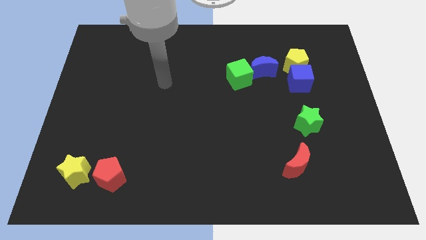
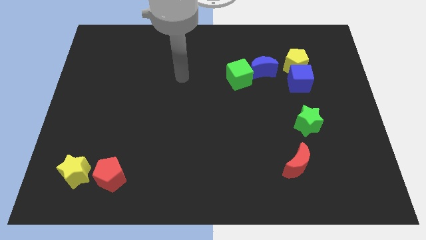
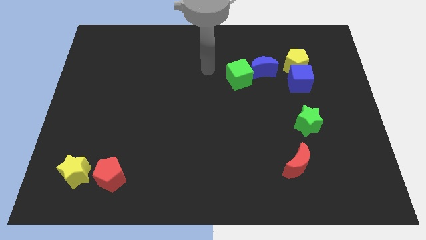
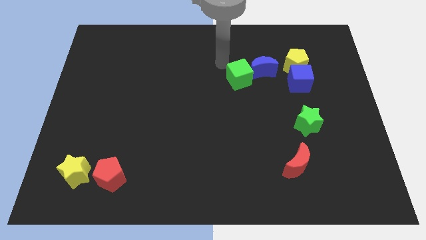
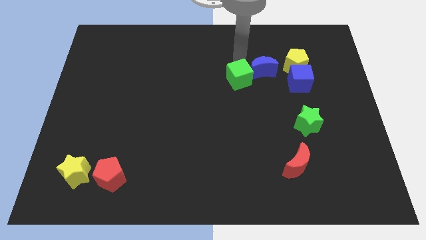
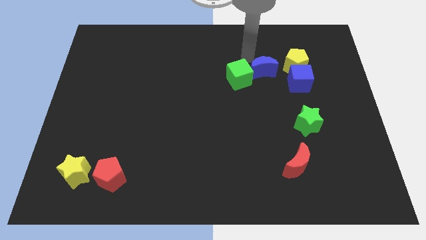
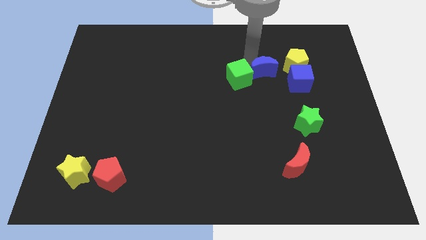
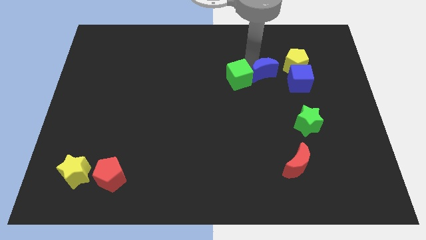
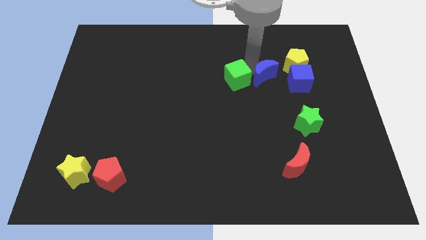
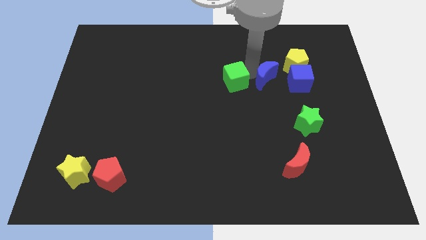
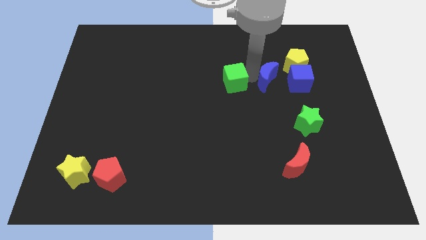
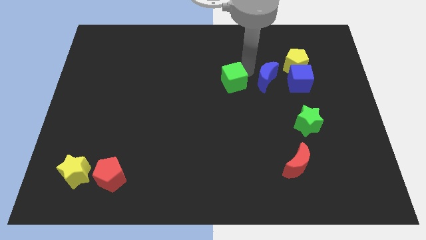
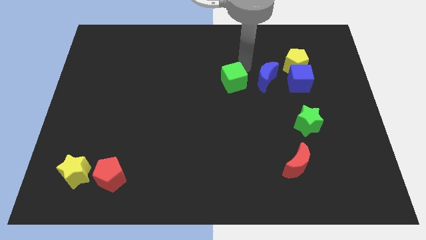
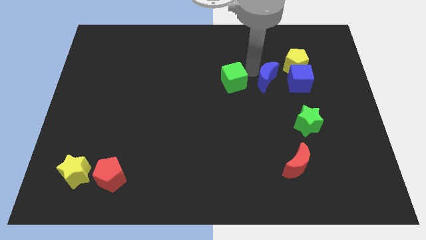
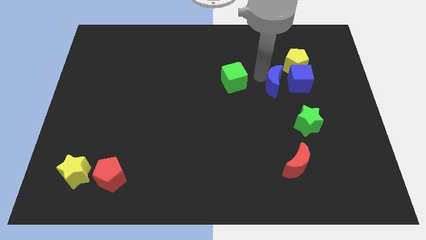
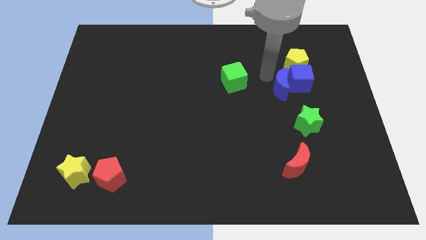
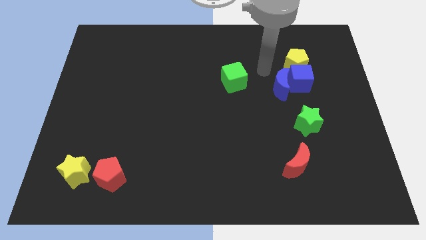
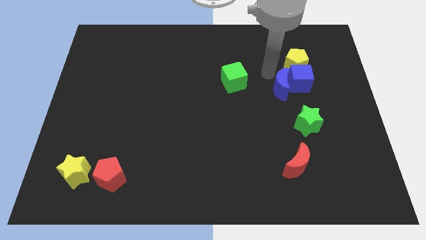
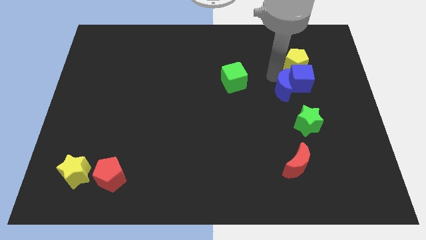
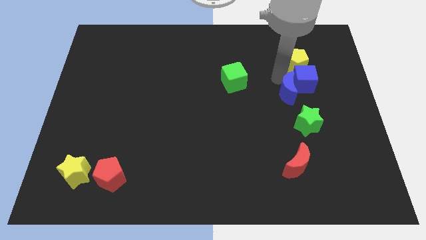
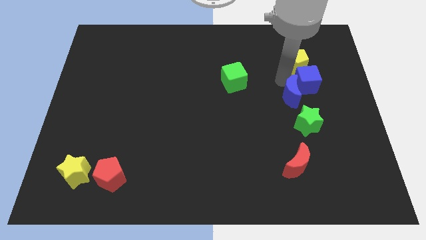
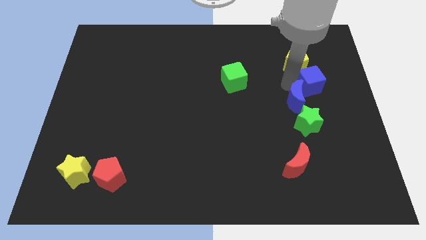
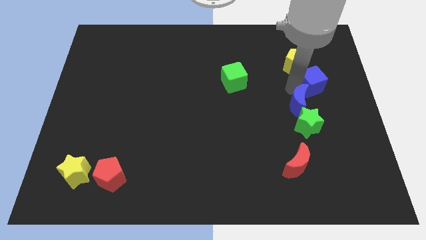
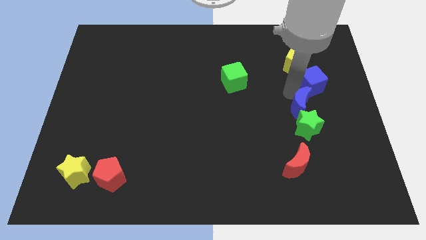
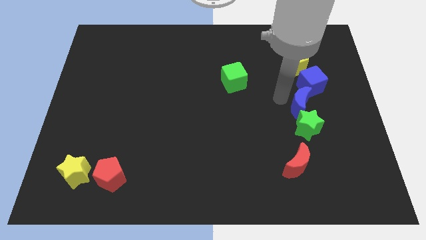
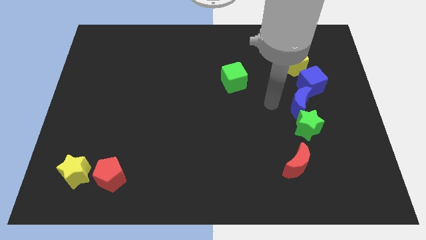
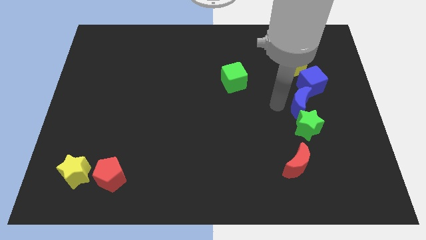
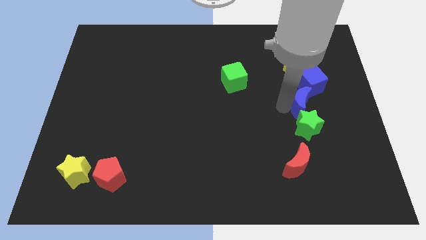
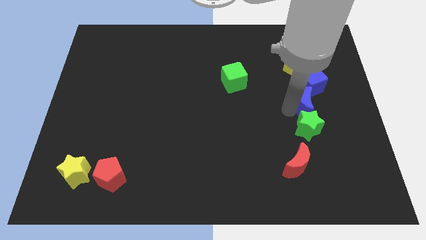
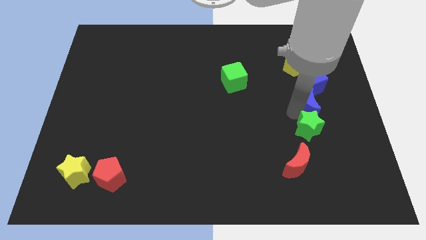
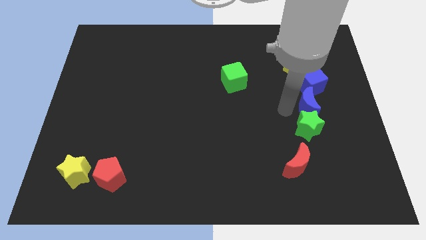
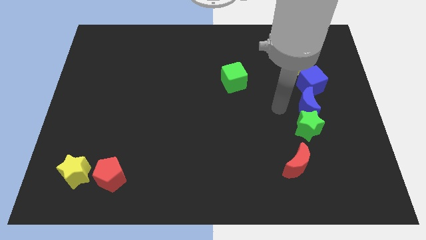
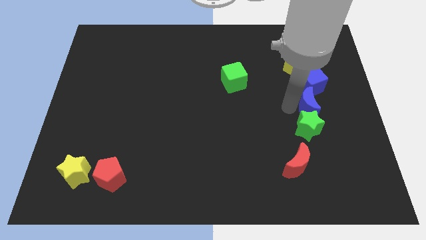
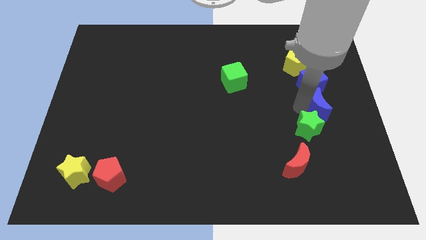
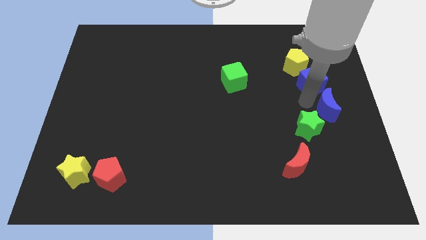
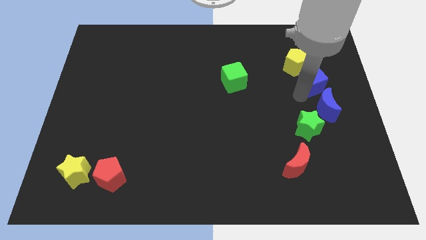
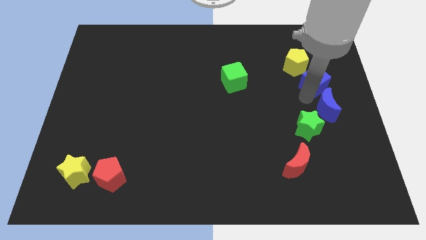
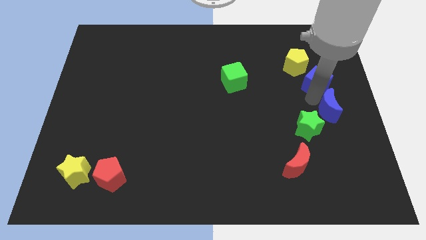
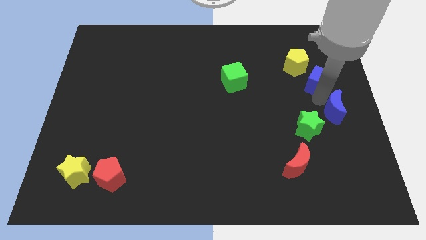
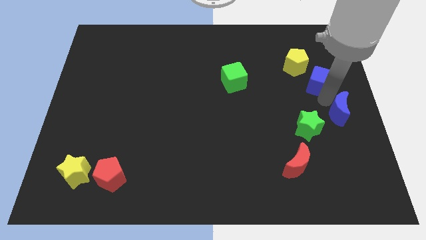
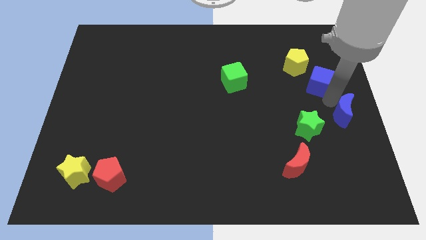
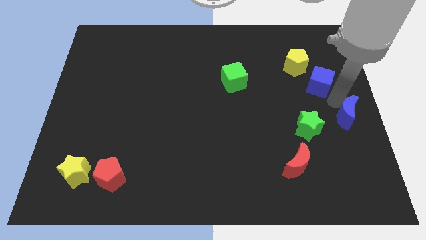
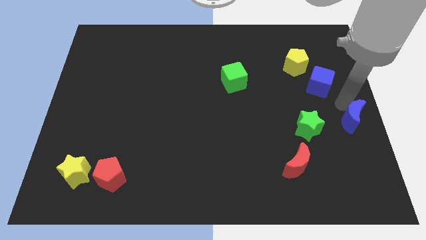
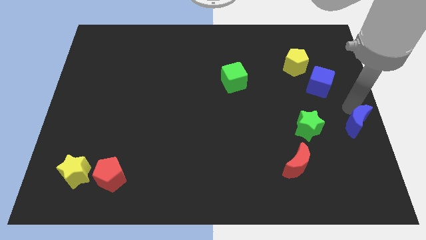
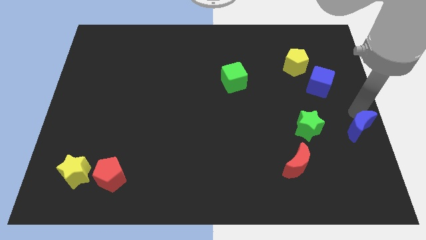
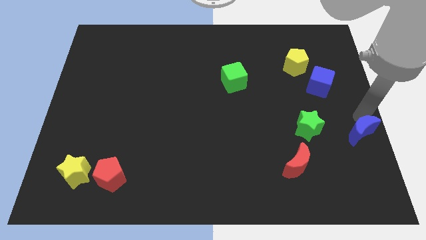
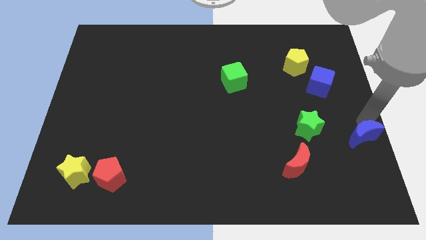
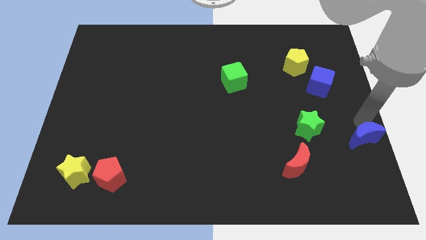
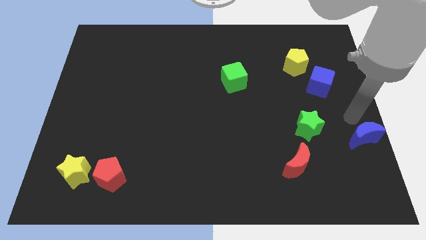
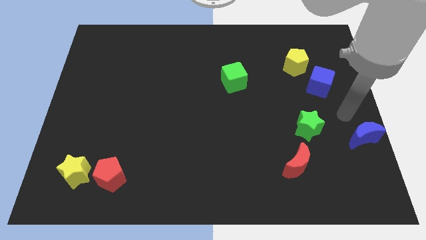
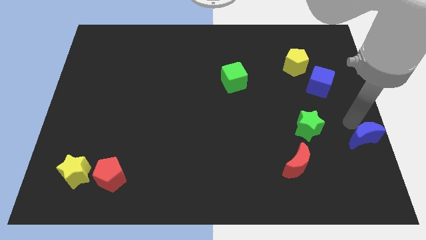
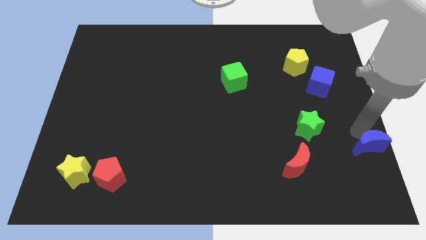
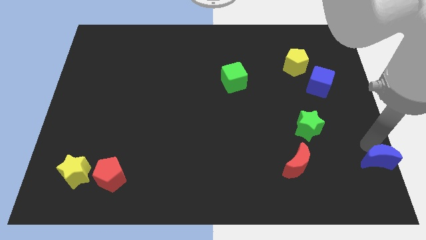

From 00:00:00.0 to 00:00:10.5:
push the blue moon to the bottom right of the board
